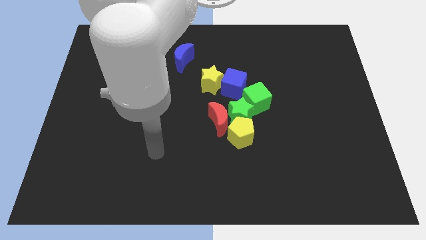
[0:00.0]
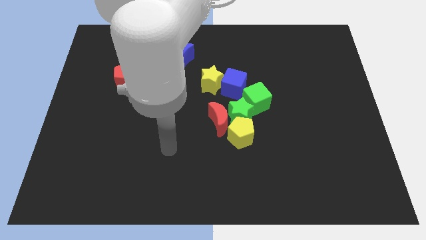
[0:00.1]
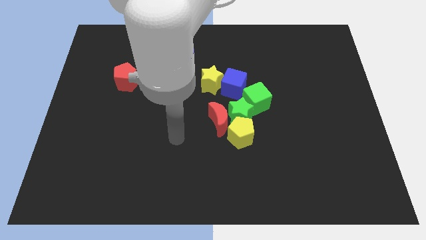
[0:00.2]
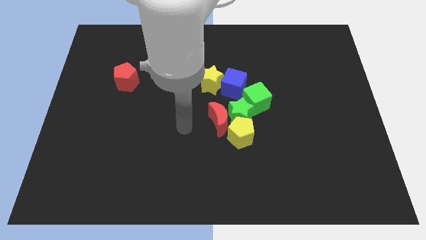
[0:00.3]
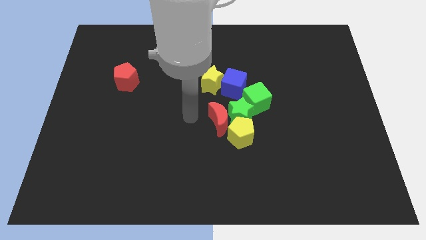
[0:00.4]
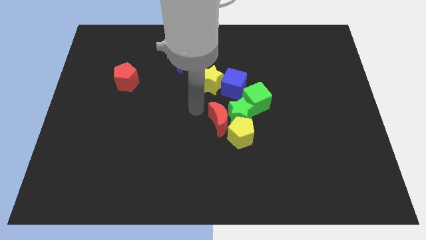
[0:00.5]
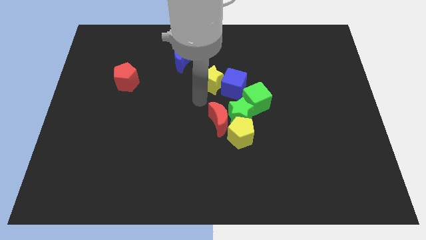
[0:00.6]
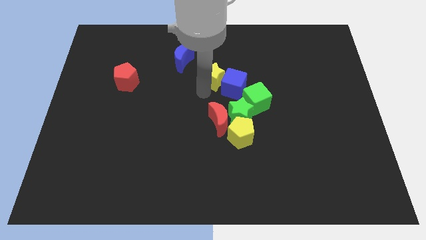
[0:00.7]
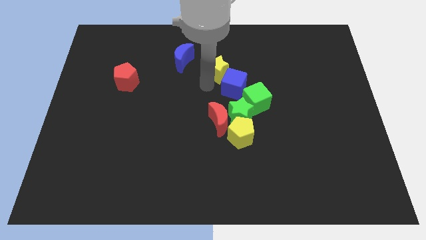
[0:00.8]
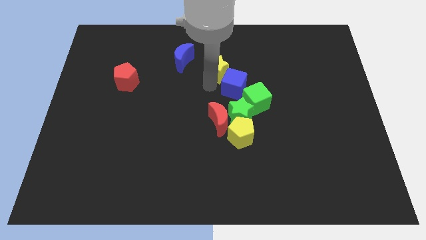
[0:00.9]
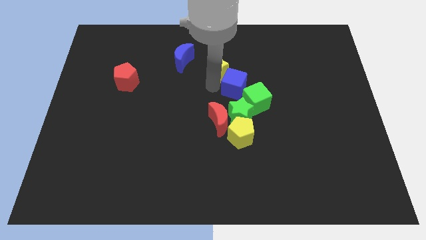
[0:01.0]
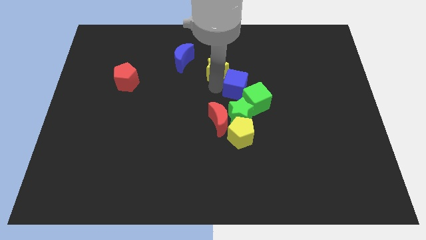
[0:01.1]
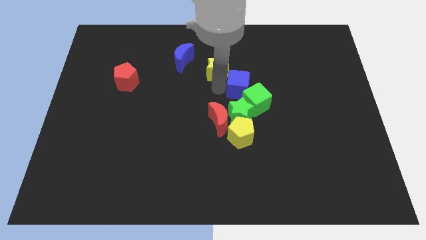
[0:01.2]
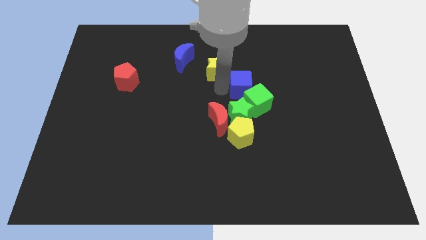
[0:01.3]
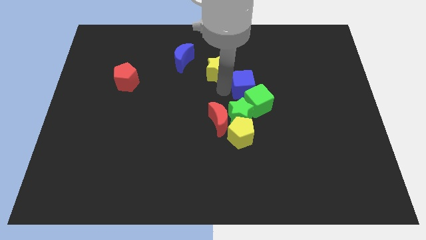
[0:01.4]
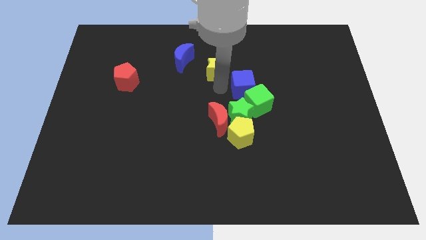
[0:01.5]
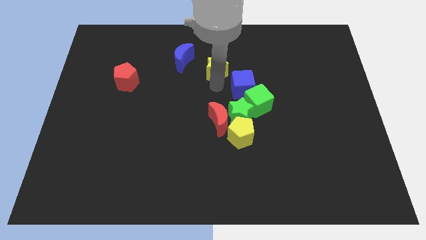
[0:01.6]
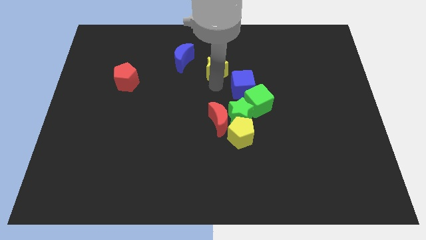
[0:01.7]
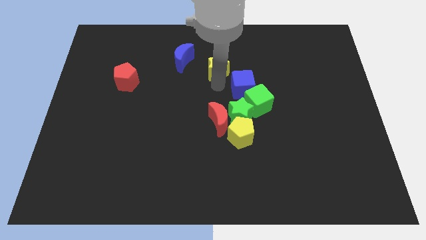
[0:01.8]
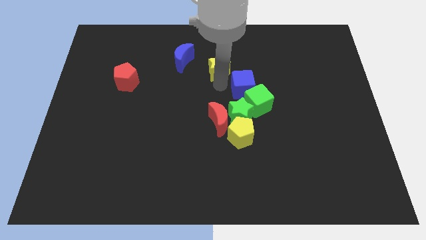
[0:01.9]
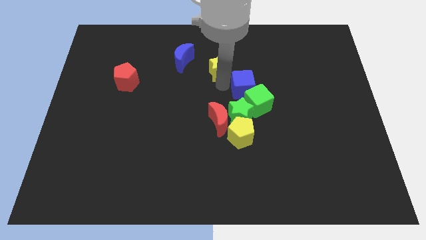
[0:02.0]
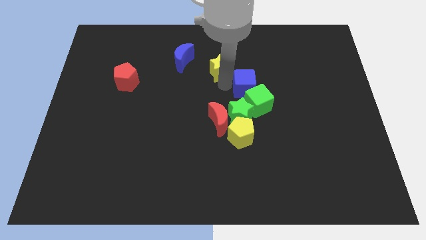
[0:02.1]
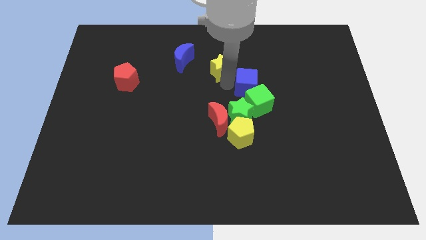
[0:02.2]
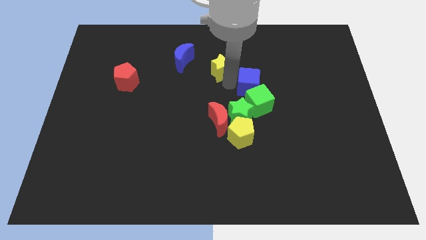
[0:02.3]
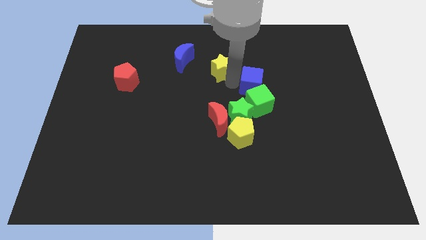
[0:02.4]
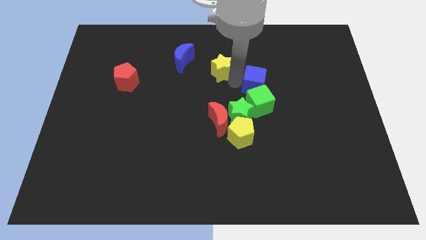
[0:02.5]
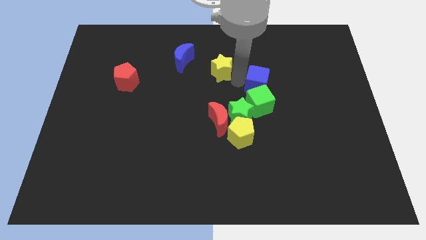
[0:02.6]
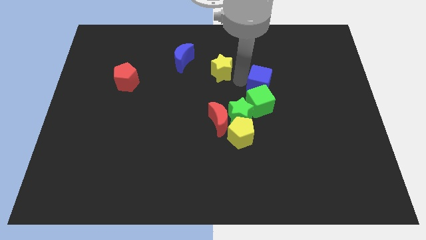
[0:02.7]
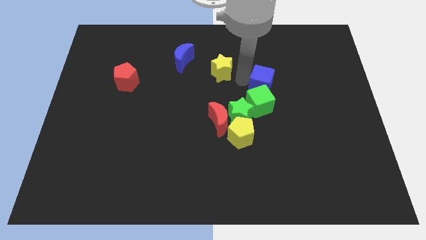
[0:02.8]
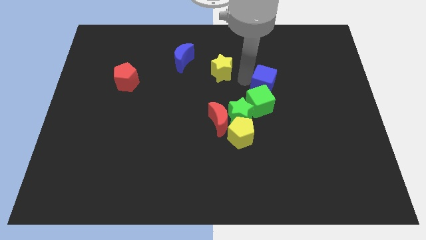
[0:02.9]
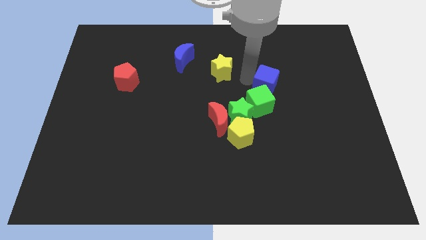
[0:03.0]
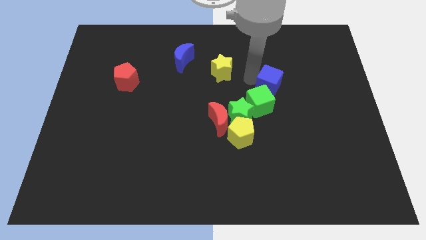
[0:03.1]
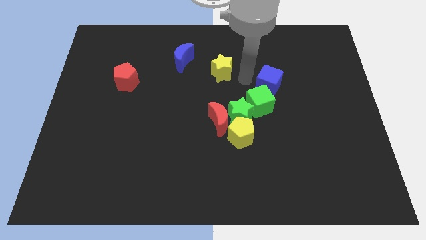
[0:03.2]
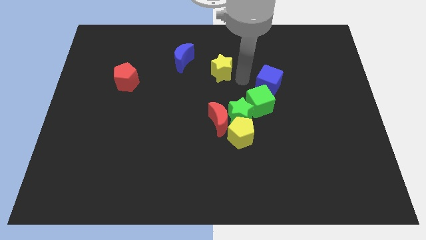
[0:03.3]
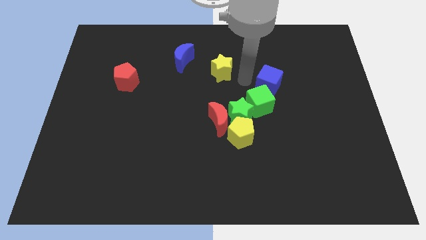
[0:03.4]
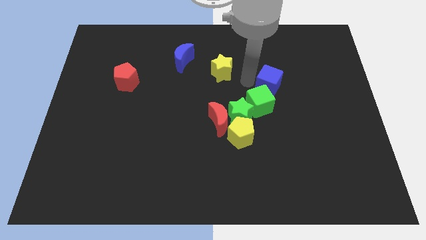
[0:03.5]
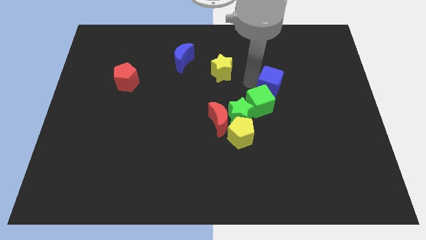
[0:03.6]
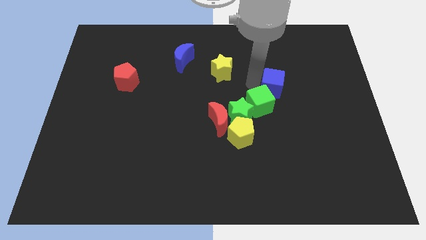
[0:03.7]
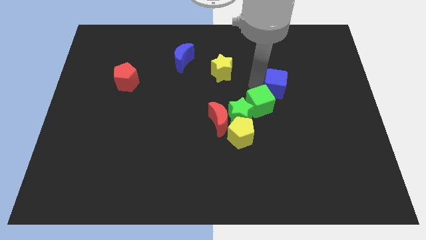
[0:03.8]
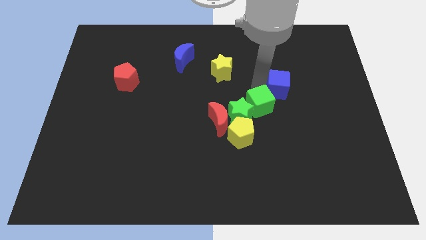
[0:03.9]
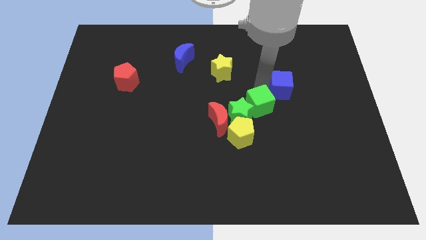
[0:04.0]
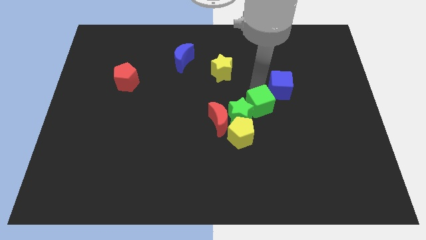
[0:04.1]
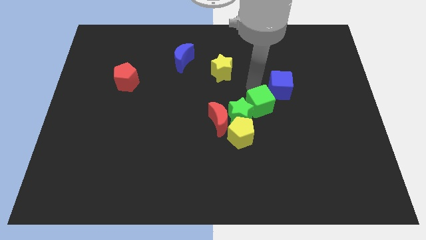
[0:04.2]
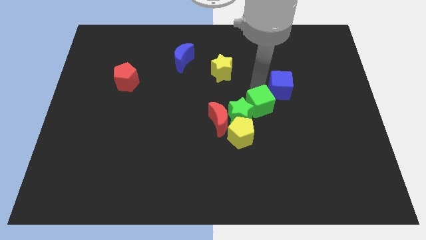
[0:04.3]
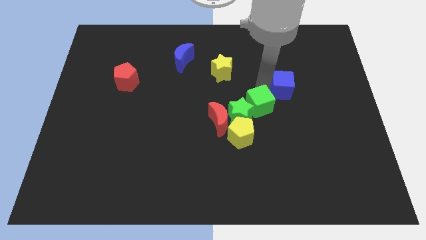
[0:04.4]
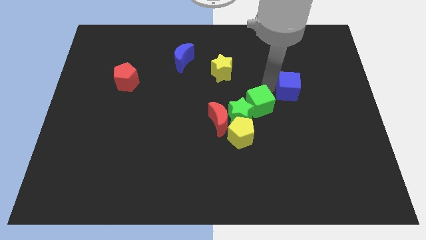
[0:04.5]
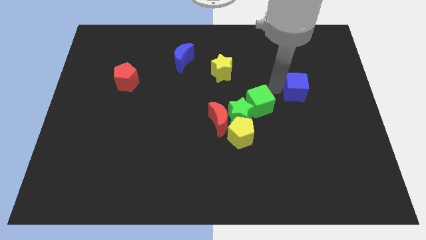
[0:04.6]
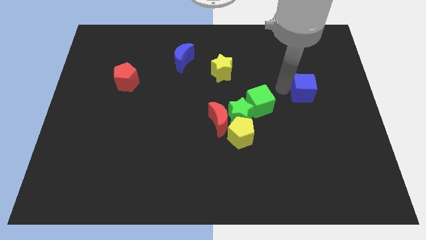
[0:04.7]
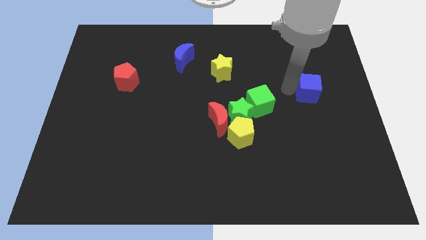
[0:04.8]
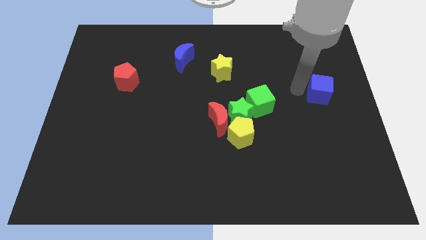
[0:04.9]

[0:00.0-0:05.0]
put the blue cube to the center right

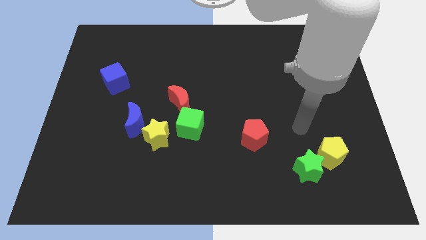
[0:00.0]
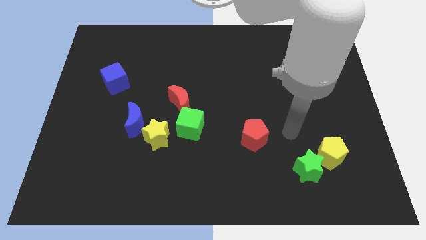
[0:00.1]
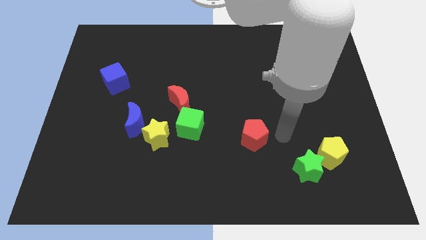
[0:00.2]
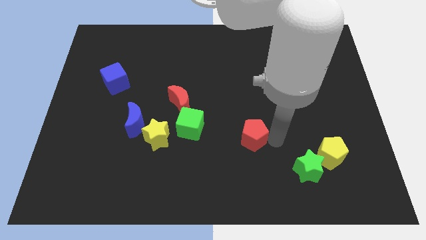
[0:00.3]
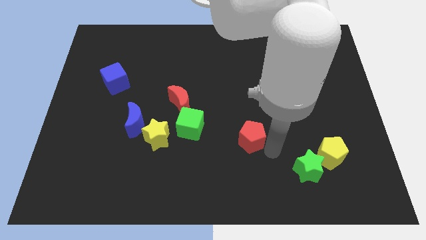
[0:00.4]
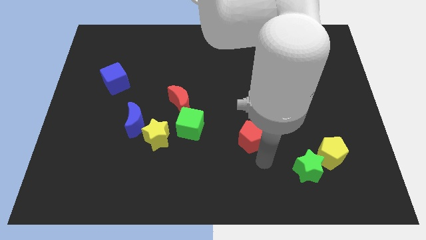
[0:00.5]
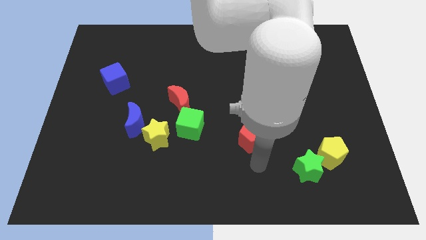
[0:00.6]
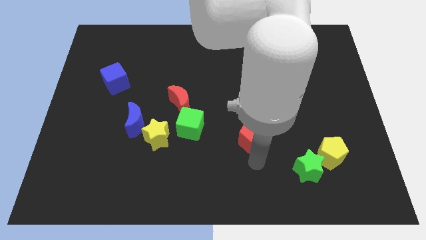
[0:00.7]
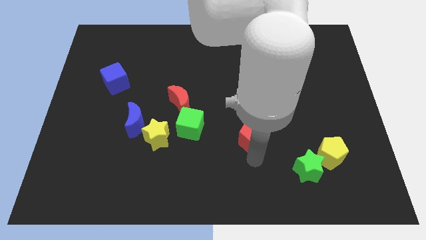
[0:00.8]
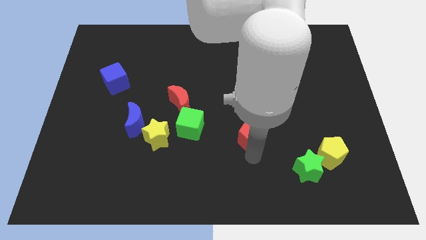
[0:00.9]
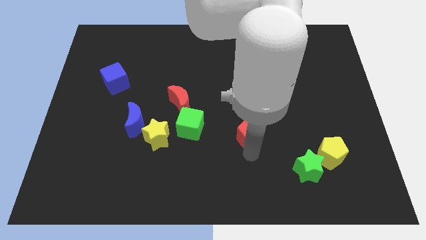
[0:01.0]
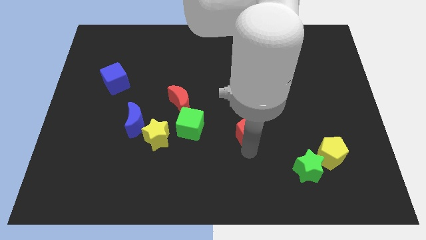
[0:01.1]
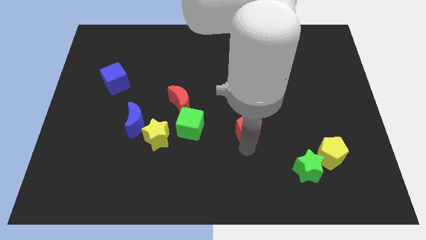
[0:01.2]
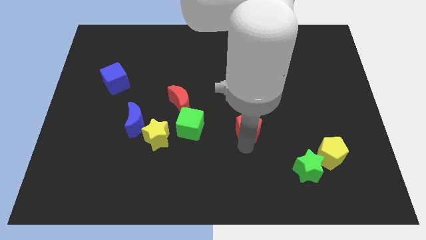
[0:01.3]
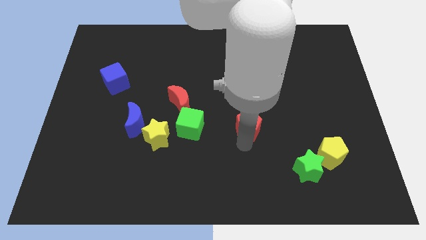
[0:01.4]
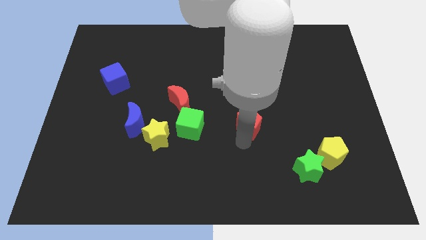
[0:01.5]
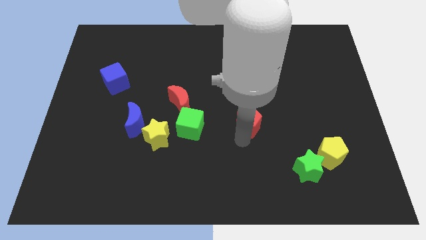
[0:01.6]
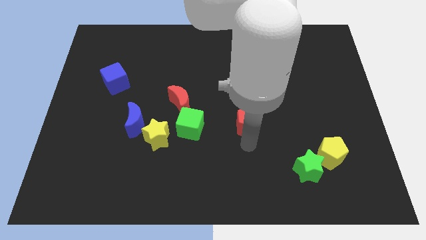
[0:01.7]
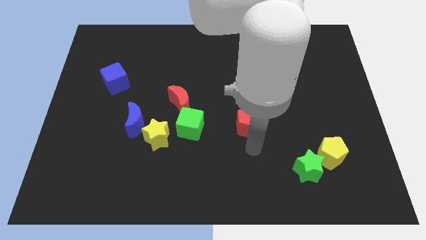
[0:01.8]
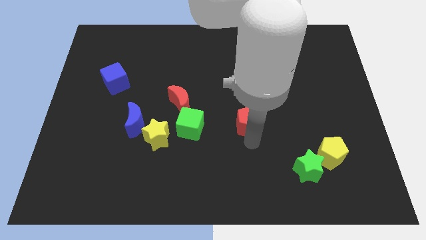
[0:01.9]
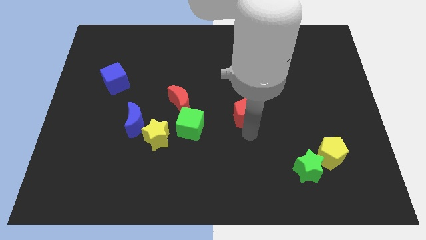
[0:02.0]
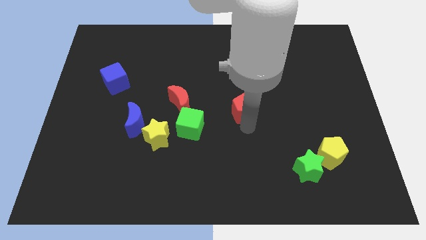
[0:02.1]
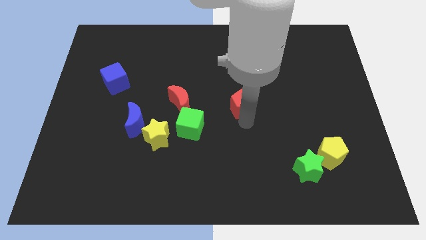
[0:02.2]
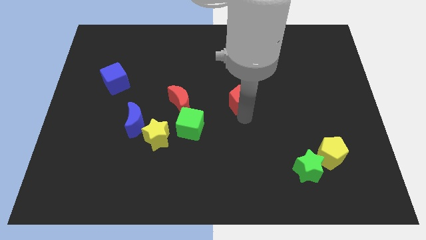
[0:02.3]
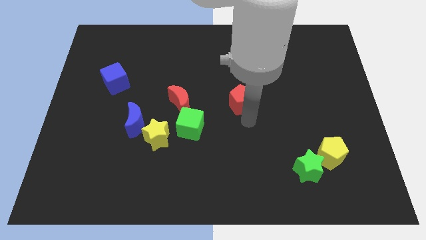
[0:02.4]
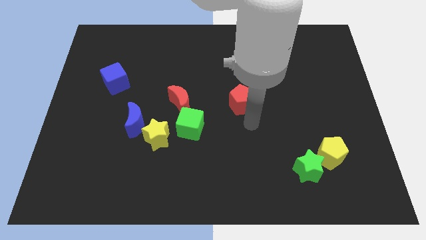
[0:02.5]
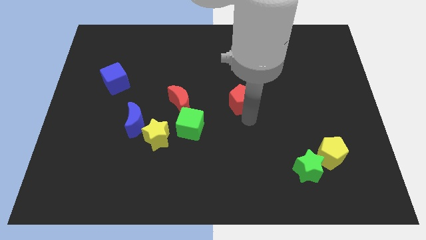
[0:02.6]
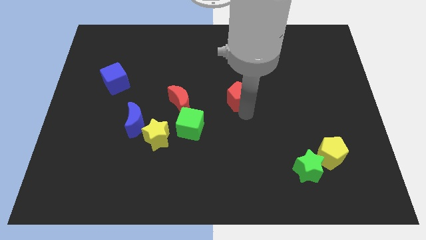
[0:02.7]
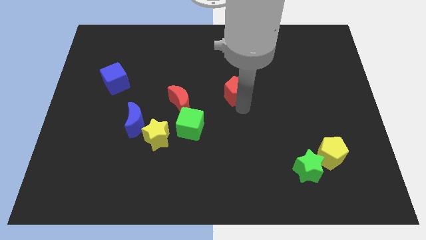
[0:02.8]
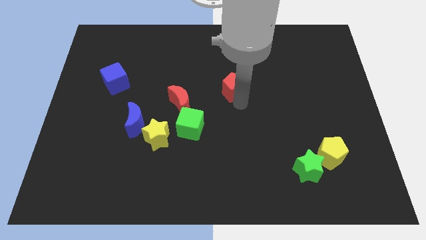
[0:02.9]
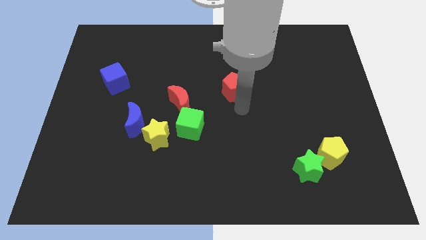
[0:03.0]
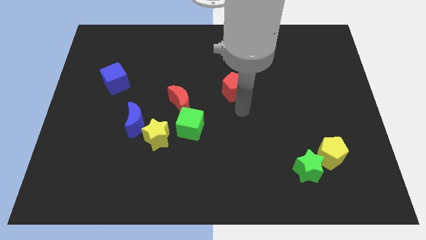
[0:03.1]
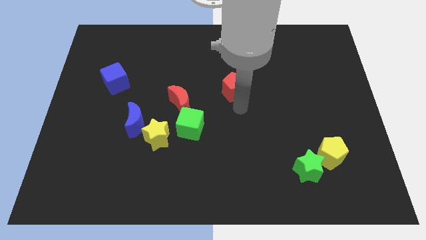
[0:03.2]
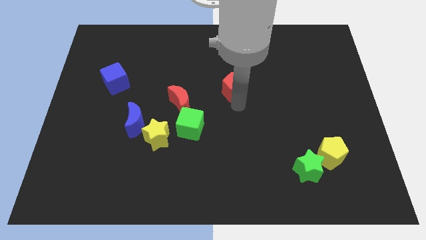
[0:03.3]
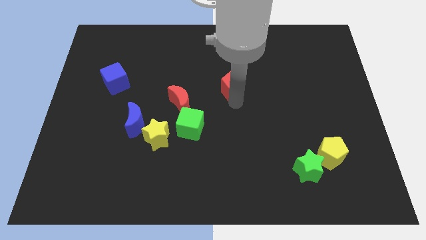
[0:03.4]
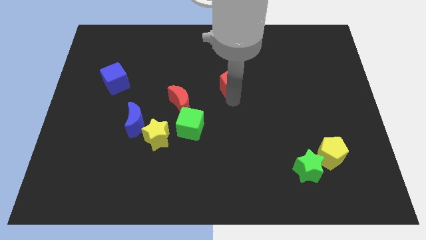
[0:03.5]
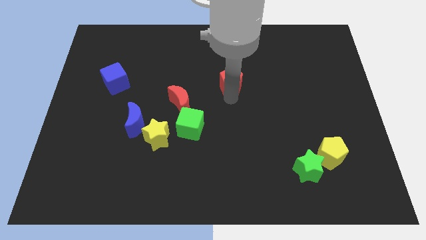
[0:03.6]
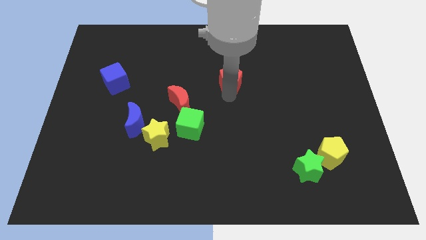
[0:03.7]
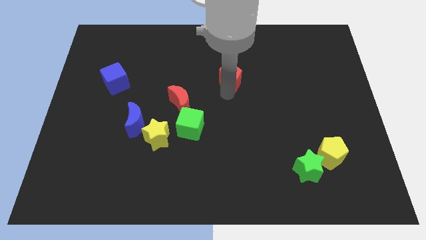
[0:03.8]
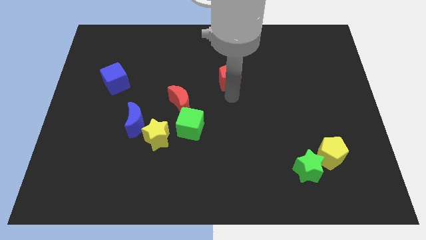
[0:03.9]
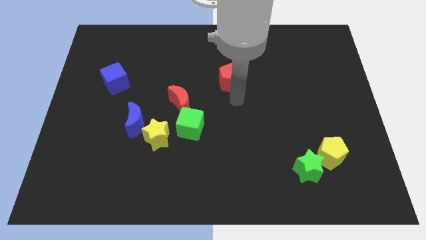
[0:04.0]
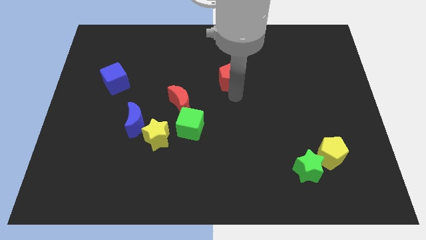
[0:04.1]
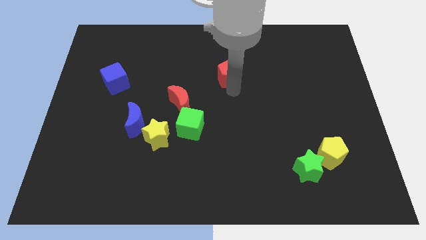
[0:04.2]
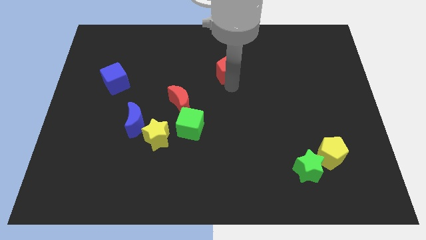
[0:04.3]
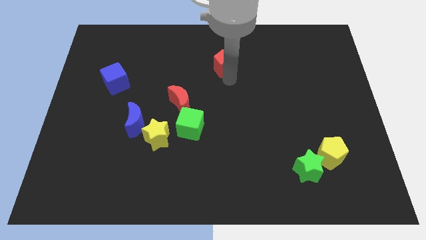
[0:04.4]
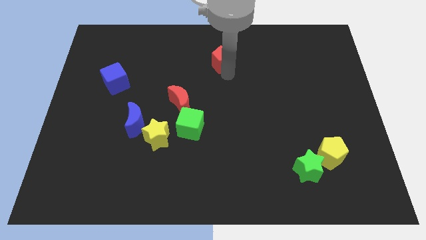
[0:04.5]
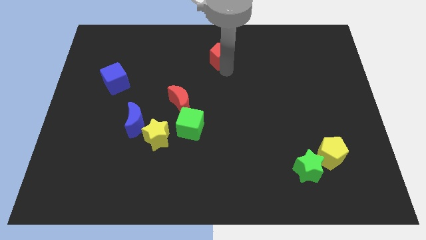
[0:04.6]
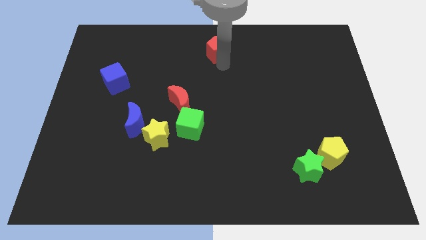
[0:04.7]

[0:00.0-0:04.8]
slide the red pentagon to the towards your base
